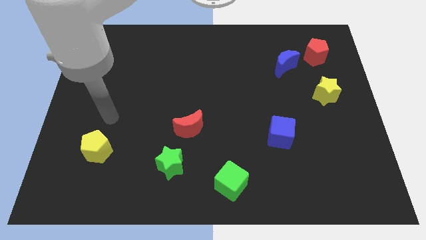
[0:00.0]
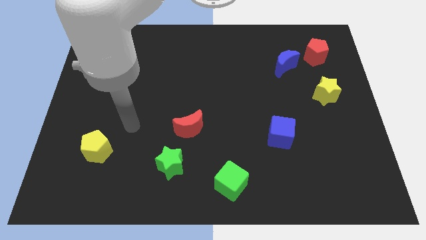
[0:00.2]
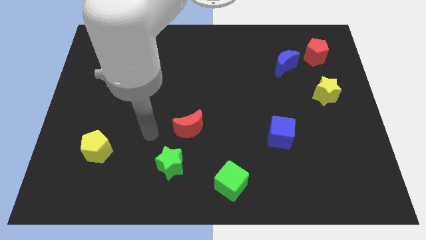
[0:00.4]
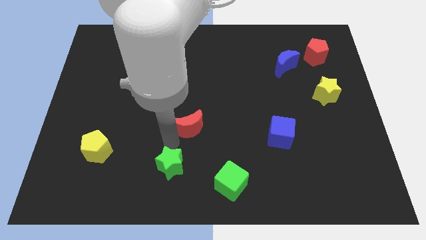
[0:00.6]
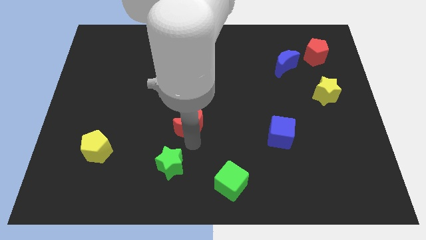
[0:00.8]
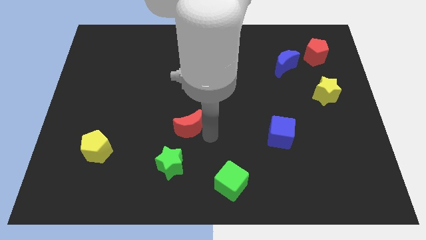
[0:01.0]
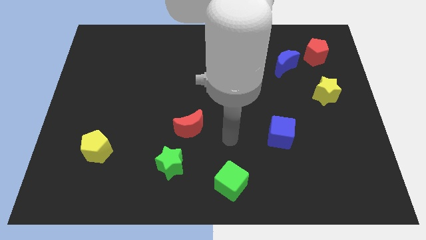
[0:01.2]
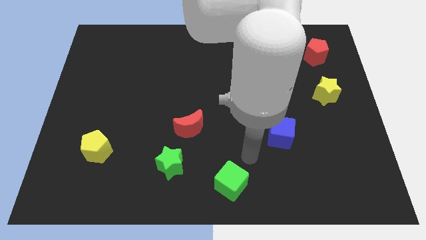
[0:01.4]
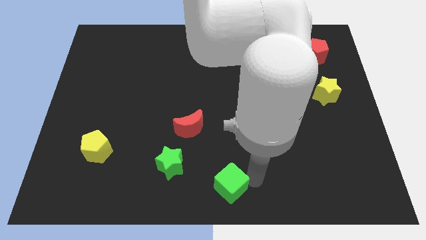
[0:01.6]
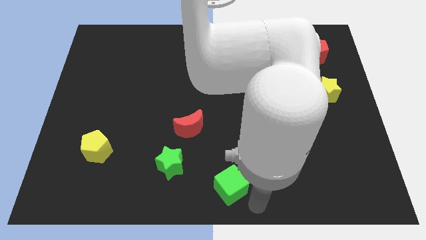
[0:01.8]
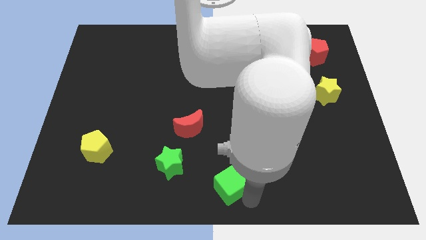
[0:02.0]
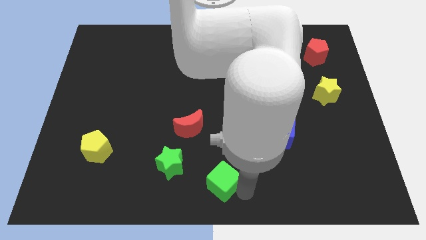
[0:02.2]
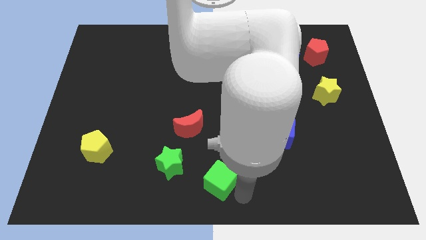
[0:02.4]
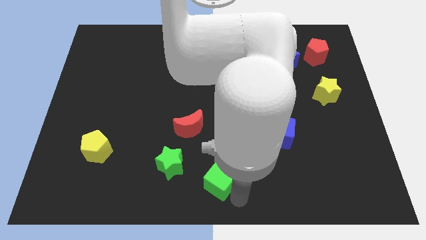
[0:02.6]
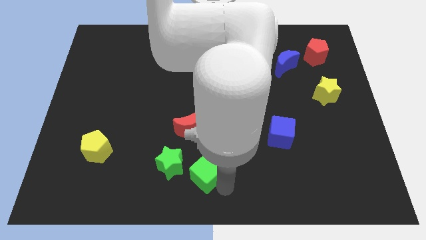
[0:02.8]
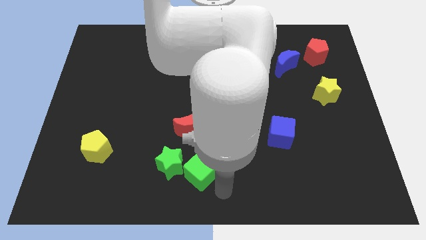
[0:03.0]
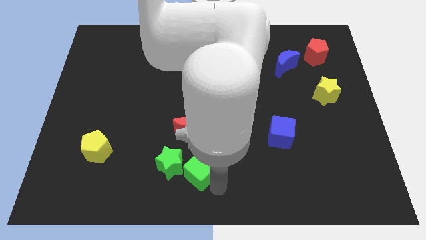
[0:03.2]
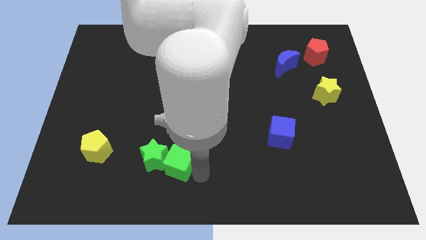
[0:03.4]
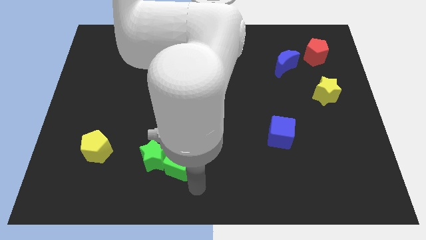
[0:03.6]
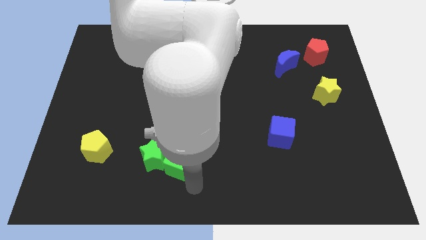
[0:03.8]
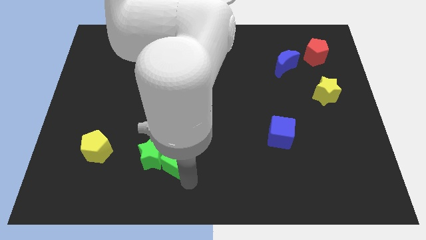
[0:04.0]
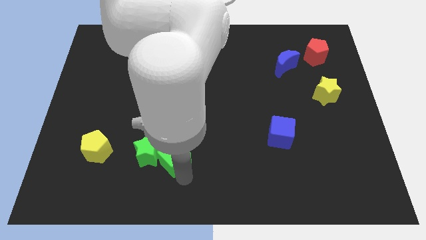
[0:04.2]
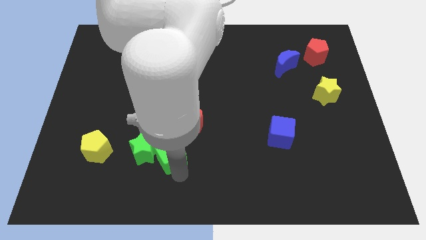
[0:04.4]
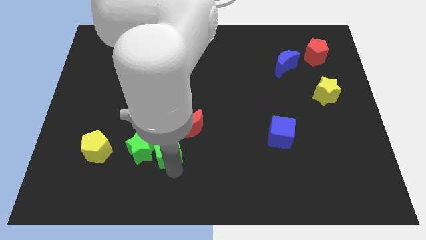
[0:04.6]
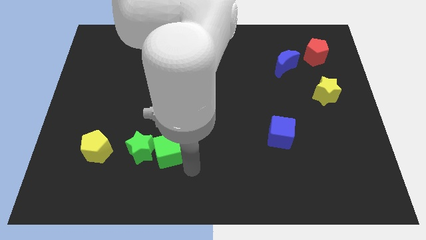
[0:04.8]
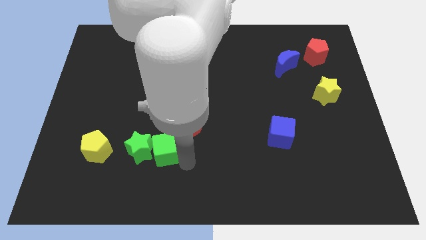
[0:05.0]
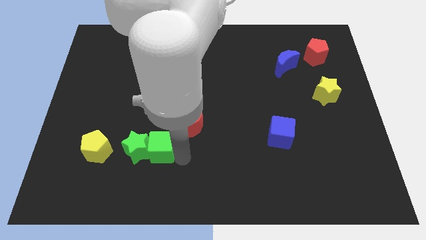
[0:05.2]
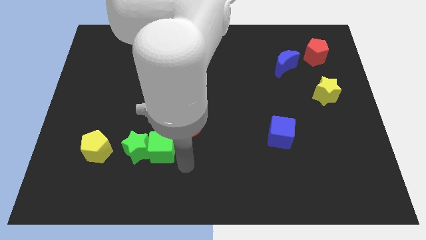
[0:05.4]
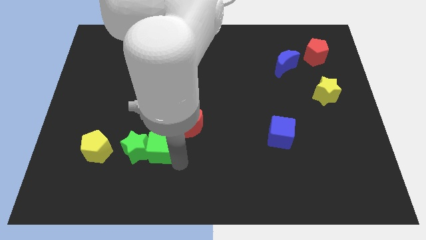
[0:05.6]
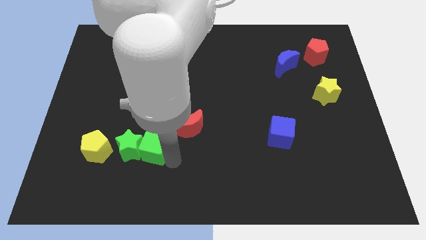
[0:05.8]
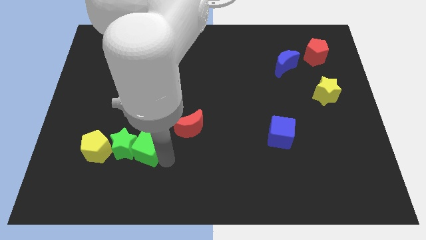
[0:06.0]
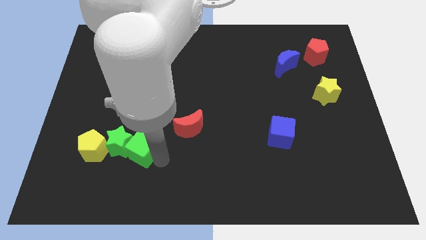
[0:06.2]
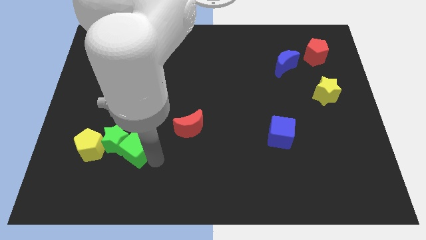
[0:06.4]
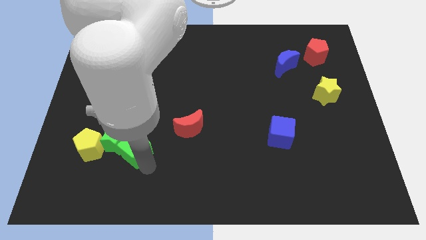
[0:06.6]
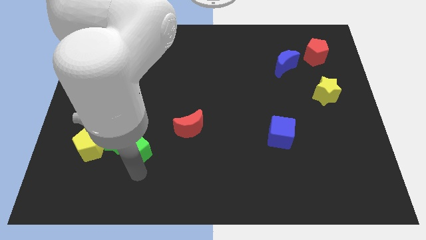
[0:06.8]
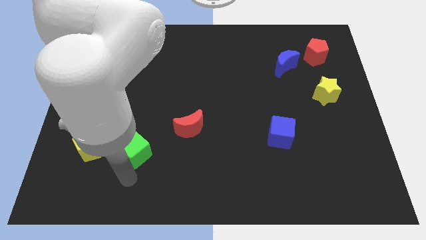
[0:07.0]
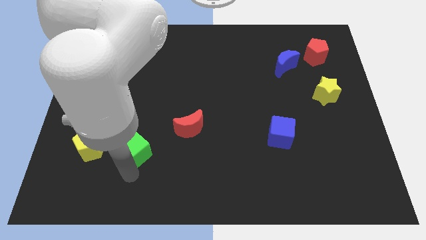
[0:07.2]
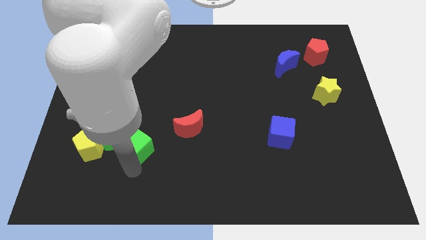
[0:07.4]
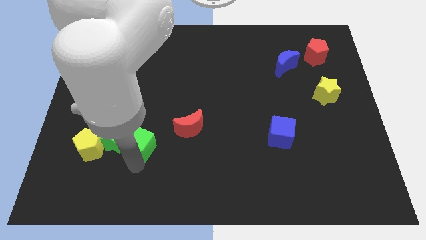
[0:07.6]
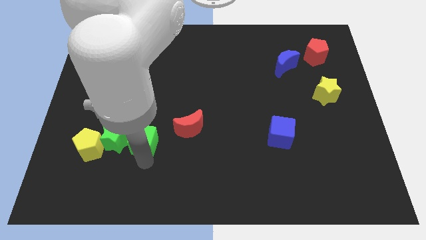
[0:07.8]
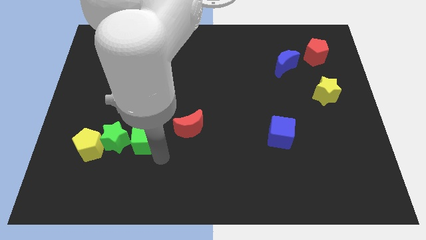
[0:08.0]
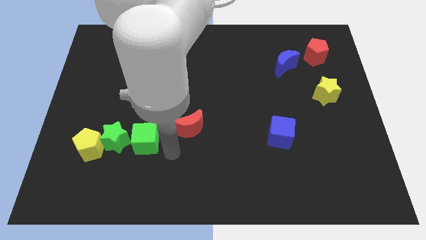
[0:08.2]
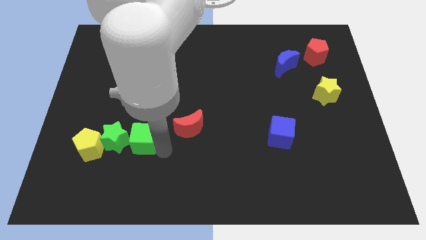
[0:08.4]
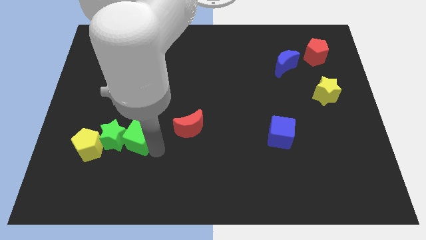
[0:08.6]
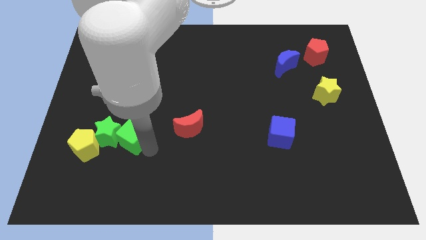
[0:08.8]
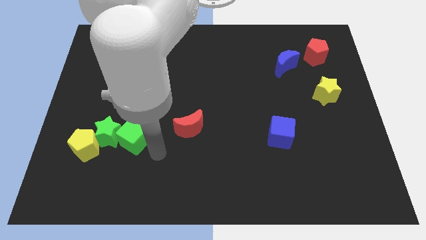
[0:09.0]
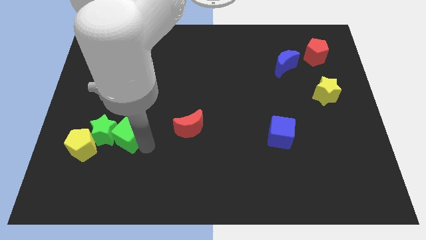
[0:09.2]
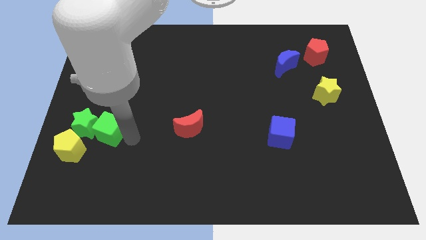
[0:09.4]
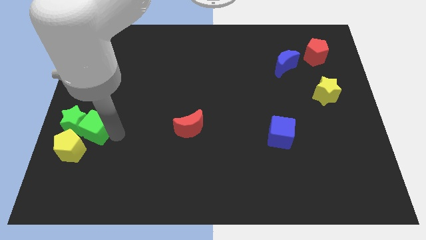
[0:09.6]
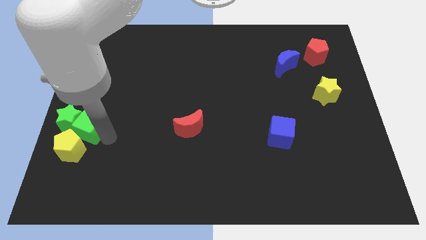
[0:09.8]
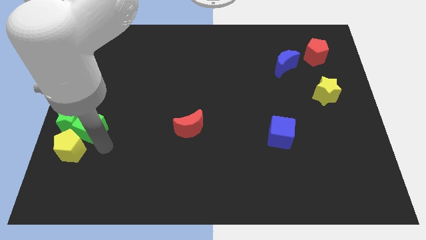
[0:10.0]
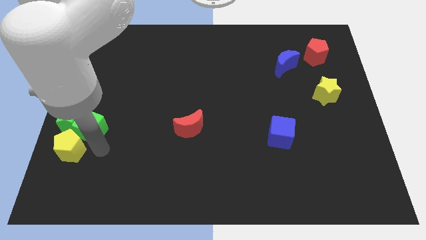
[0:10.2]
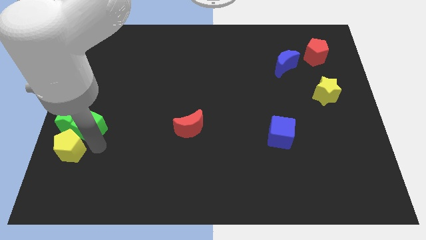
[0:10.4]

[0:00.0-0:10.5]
slide the green cube to the left side of the board
